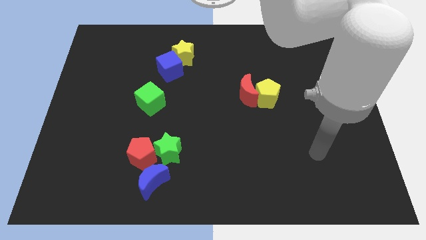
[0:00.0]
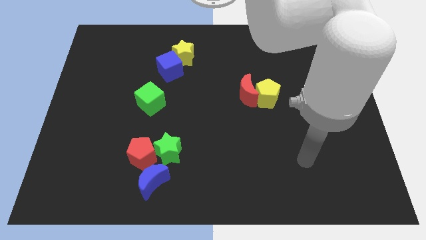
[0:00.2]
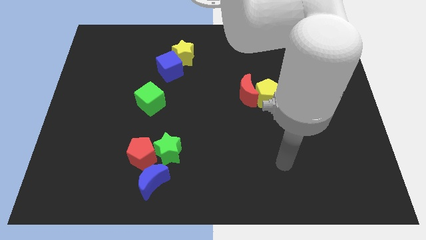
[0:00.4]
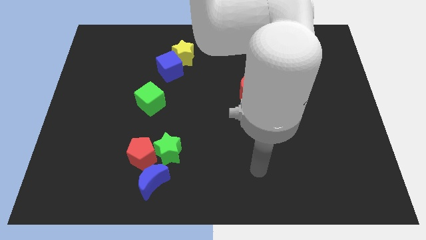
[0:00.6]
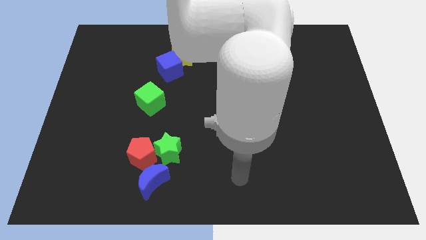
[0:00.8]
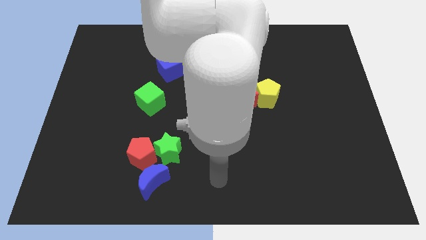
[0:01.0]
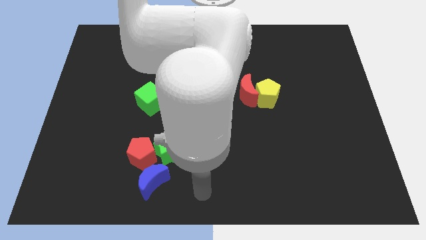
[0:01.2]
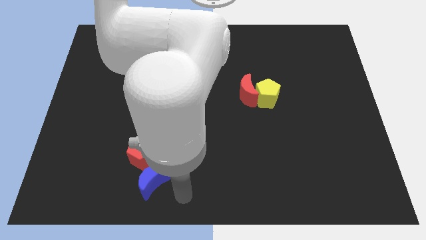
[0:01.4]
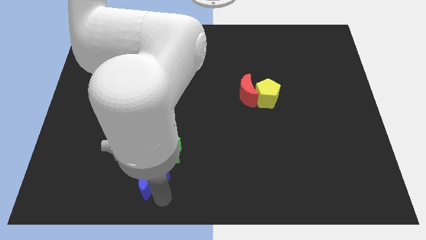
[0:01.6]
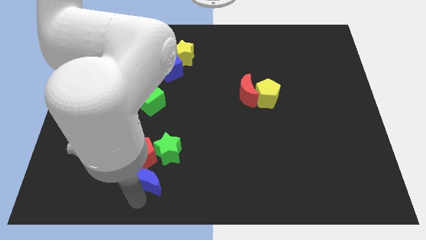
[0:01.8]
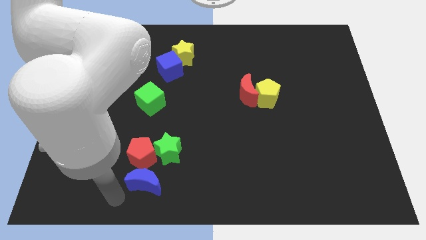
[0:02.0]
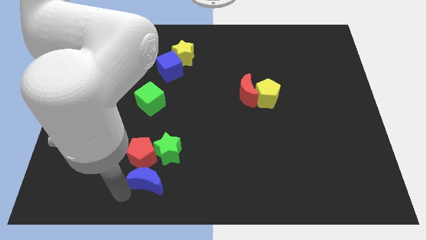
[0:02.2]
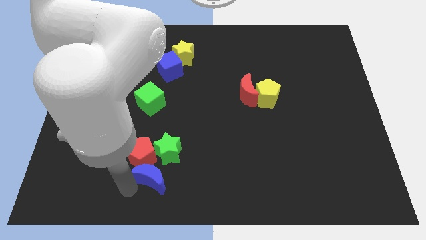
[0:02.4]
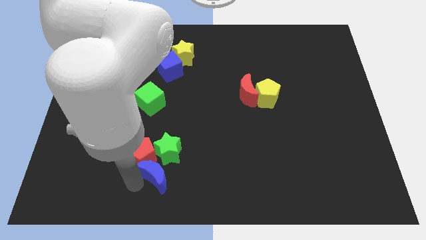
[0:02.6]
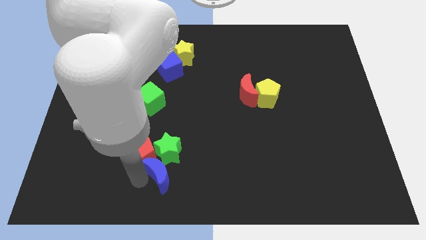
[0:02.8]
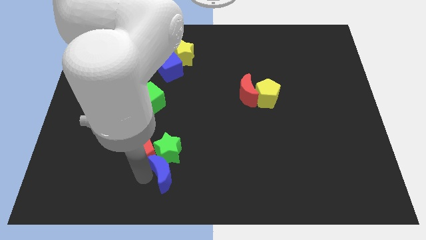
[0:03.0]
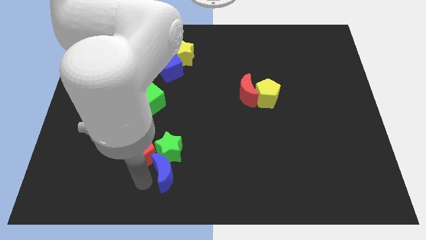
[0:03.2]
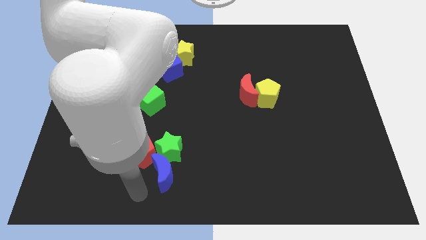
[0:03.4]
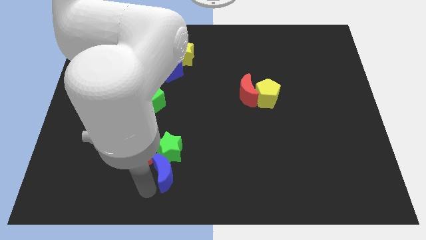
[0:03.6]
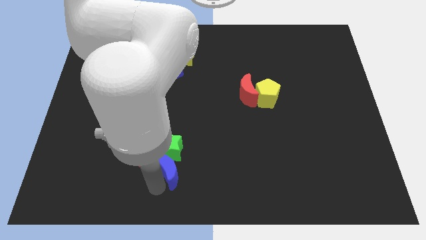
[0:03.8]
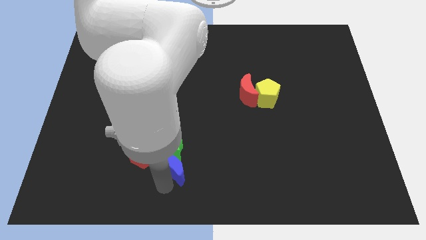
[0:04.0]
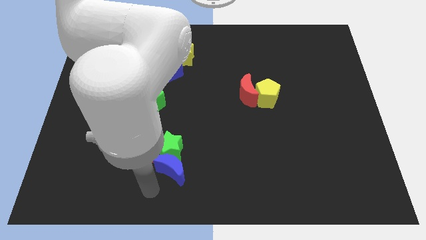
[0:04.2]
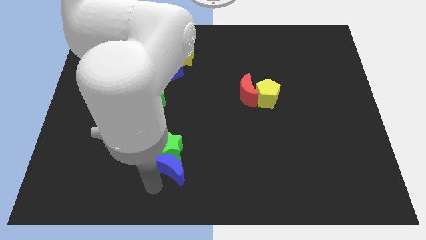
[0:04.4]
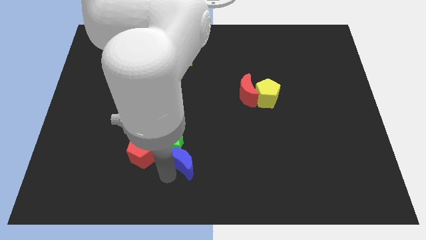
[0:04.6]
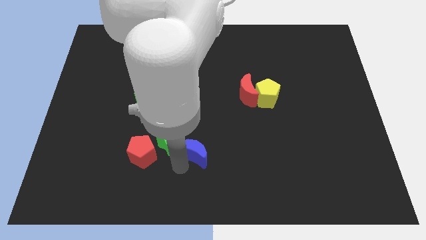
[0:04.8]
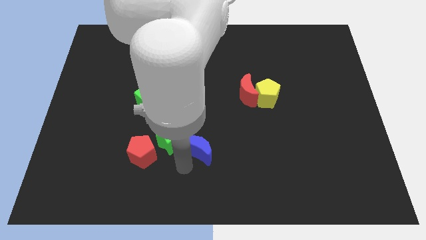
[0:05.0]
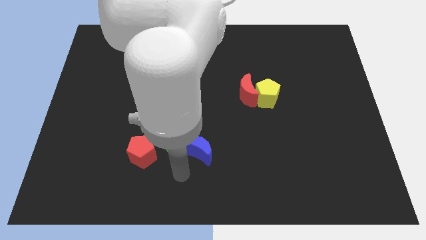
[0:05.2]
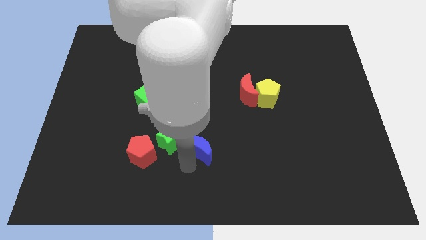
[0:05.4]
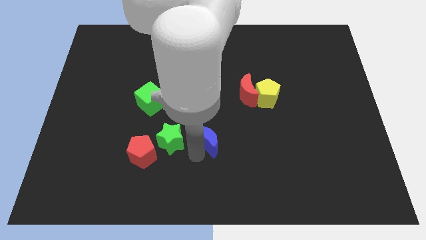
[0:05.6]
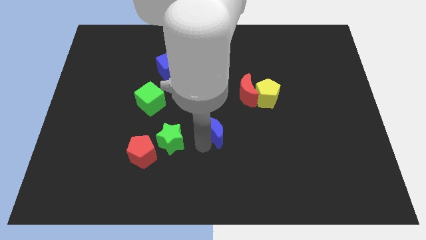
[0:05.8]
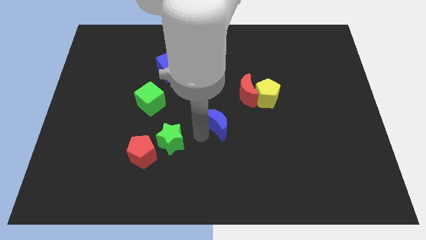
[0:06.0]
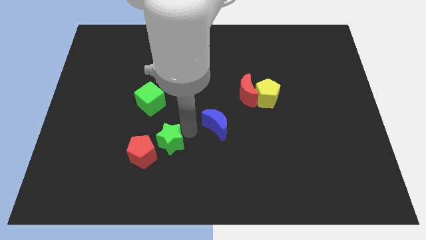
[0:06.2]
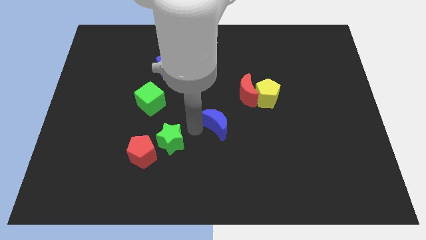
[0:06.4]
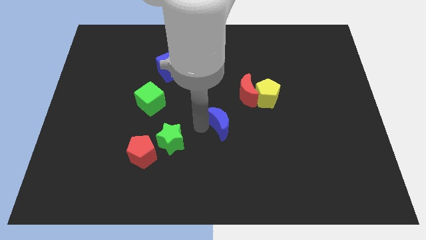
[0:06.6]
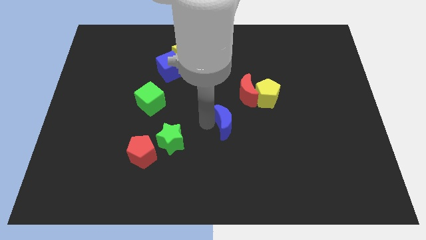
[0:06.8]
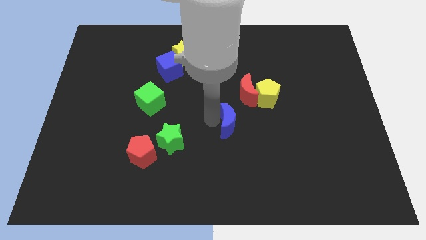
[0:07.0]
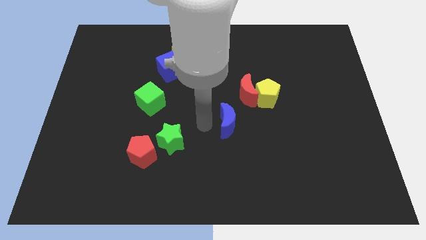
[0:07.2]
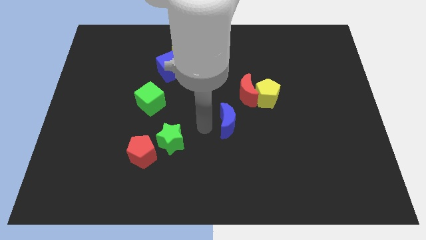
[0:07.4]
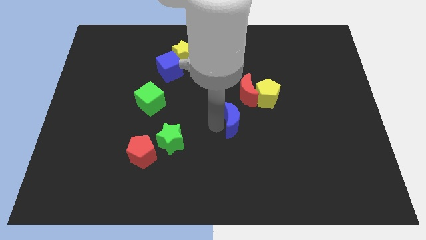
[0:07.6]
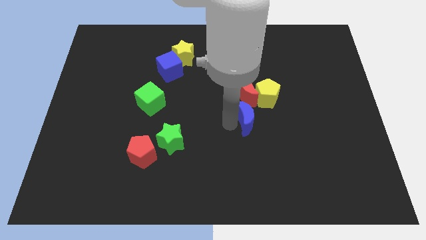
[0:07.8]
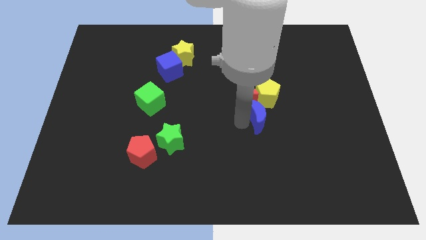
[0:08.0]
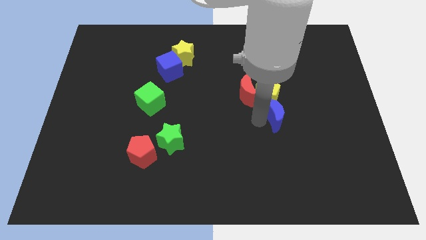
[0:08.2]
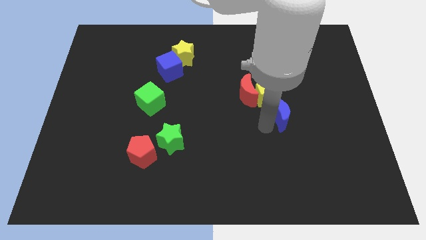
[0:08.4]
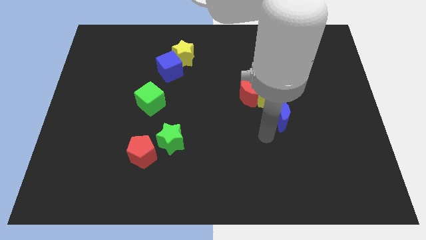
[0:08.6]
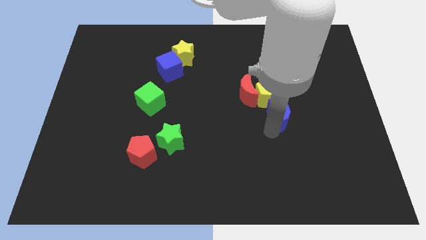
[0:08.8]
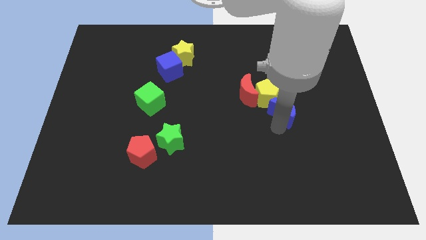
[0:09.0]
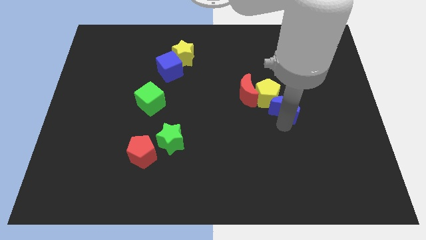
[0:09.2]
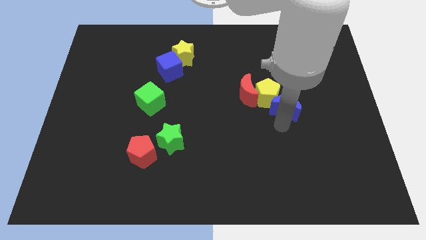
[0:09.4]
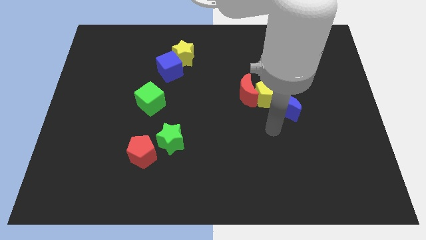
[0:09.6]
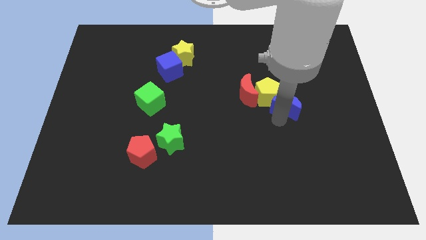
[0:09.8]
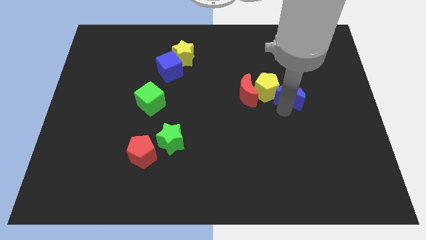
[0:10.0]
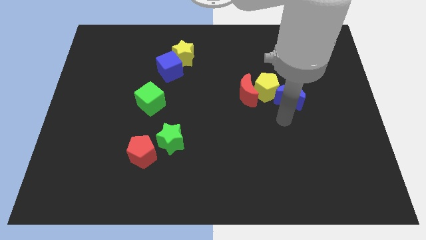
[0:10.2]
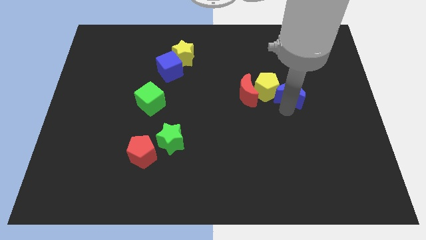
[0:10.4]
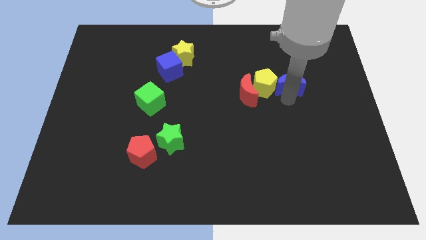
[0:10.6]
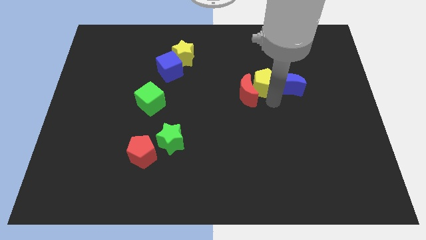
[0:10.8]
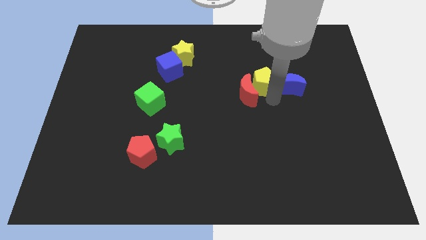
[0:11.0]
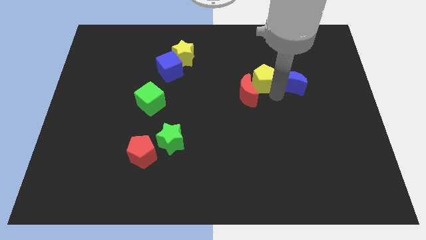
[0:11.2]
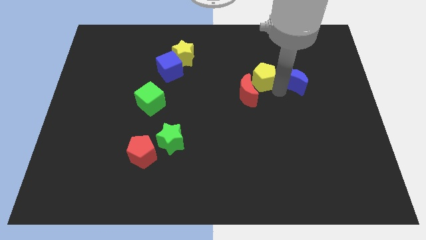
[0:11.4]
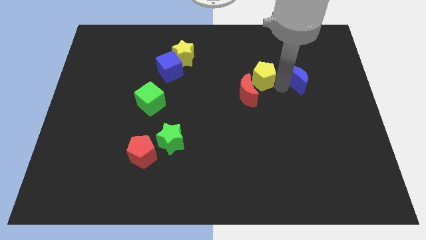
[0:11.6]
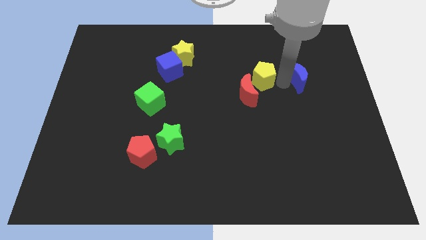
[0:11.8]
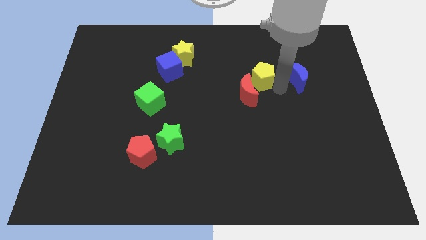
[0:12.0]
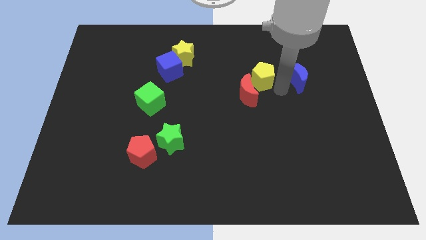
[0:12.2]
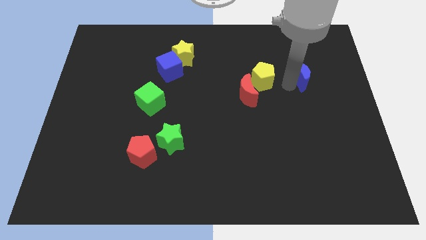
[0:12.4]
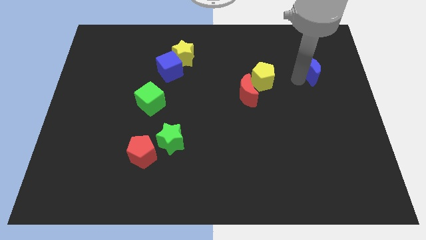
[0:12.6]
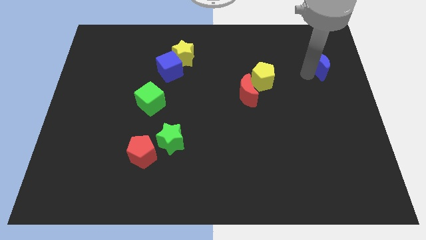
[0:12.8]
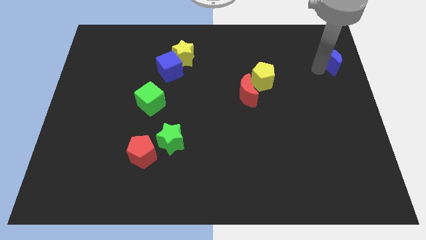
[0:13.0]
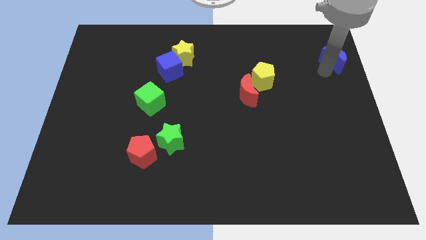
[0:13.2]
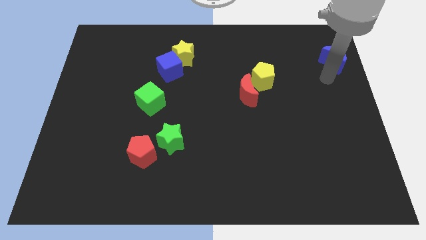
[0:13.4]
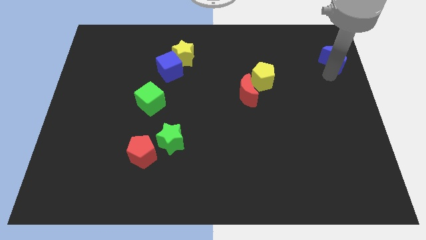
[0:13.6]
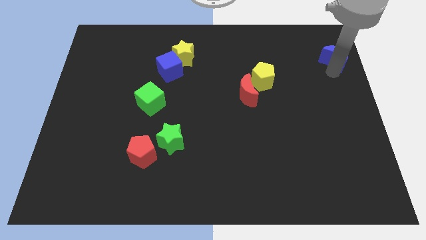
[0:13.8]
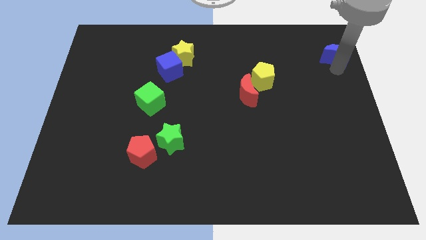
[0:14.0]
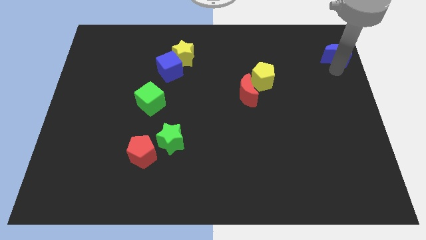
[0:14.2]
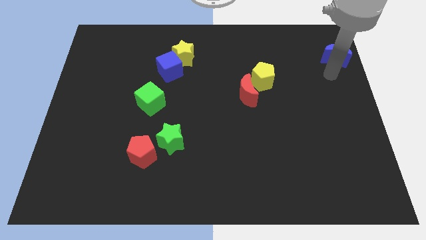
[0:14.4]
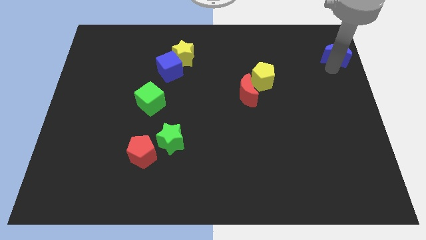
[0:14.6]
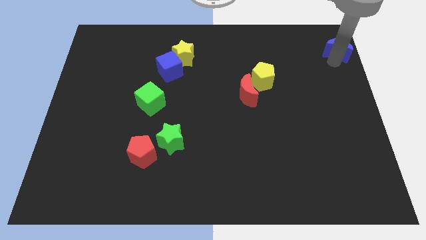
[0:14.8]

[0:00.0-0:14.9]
slide the blue moon to the top right of the board
